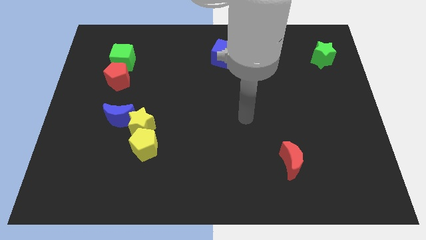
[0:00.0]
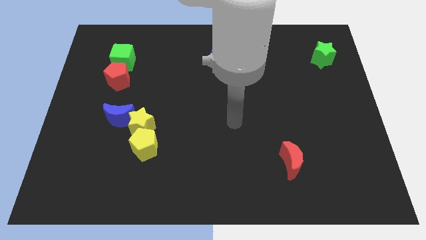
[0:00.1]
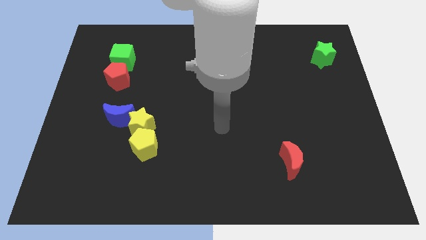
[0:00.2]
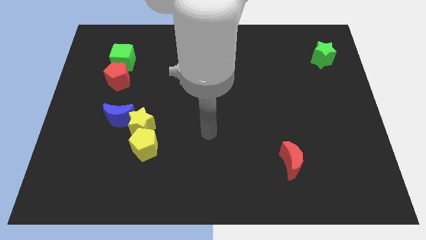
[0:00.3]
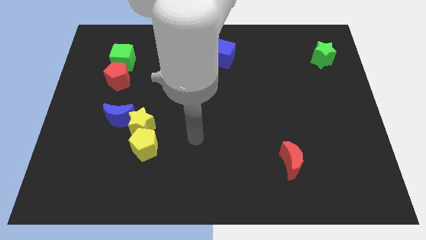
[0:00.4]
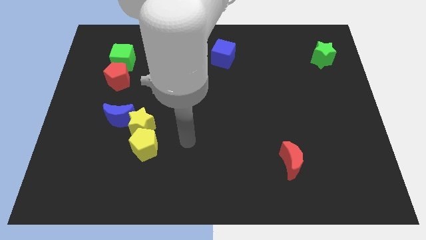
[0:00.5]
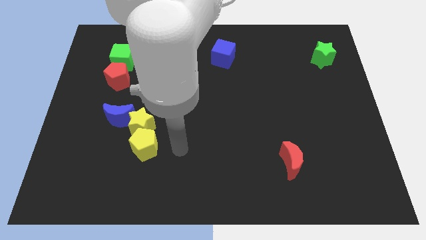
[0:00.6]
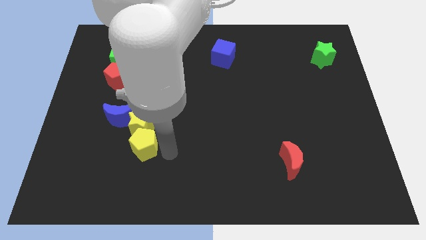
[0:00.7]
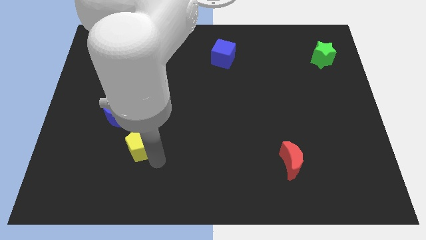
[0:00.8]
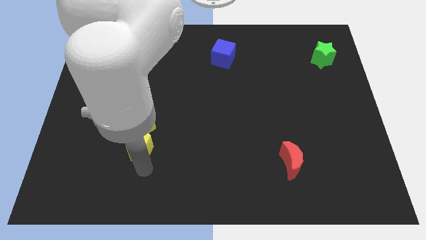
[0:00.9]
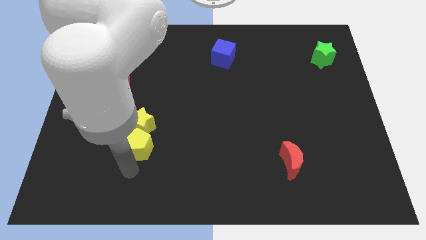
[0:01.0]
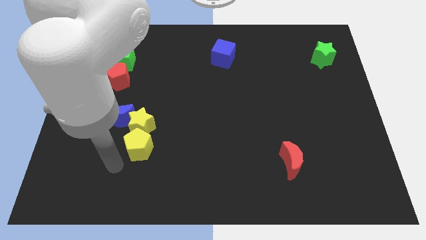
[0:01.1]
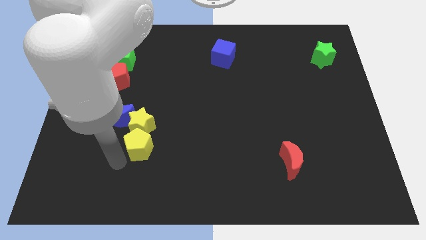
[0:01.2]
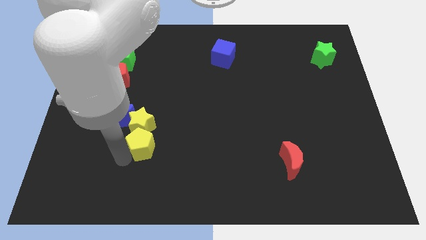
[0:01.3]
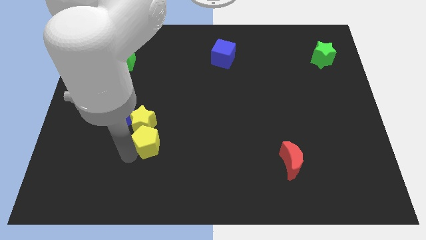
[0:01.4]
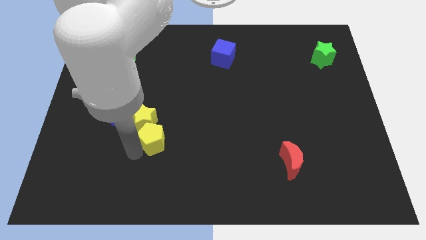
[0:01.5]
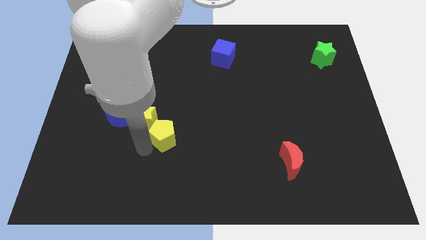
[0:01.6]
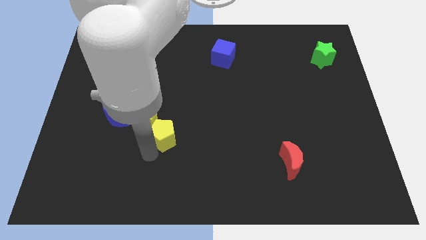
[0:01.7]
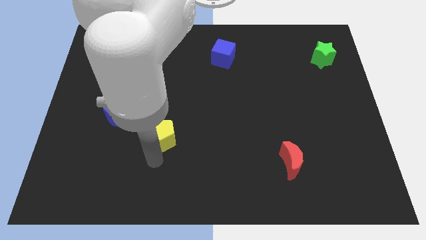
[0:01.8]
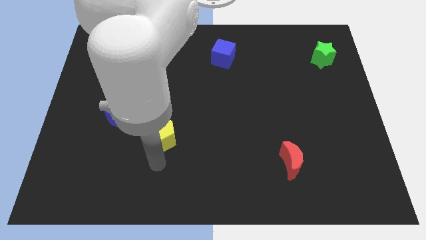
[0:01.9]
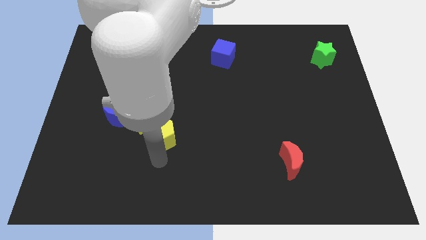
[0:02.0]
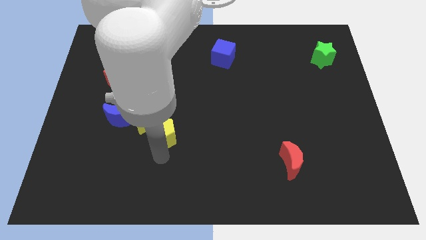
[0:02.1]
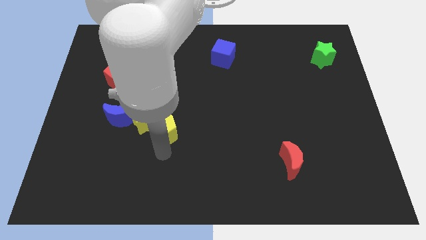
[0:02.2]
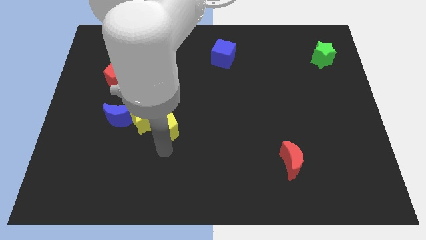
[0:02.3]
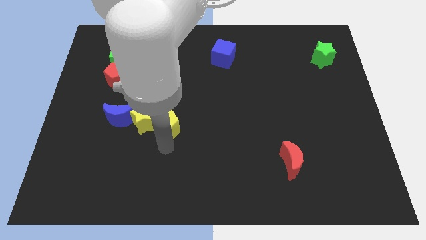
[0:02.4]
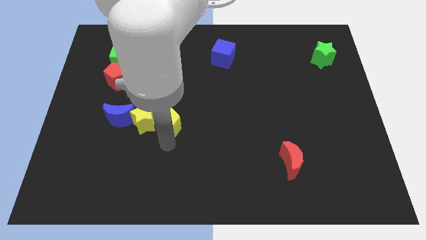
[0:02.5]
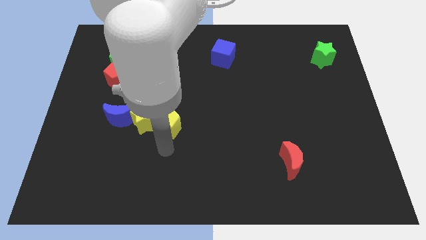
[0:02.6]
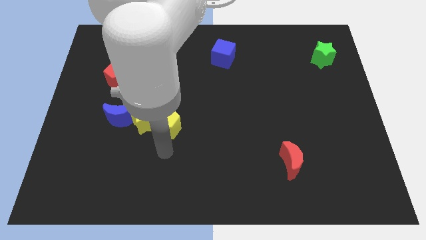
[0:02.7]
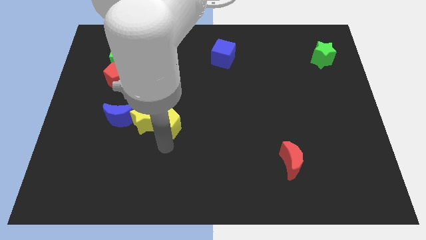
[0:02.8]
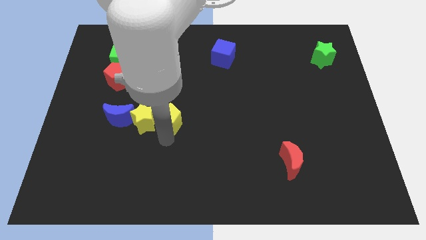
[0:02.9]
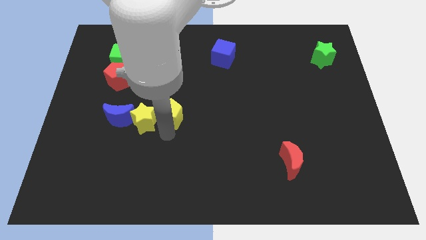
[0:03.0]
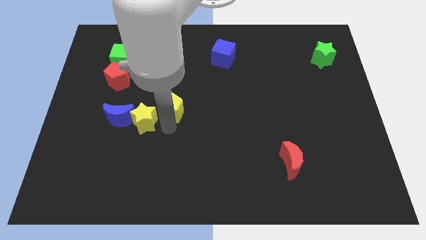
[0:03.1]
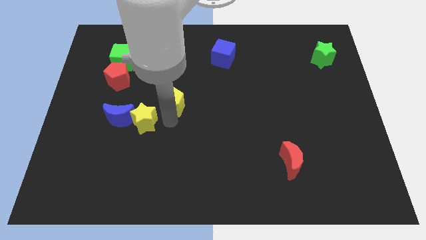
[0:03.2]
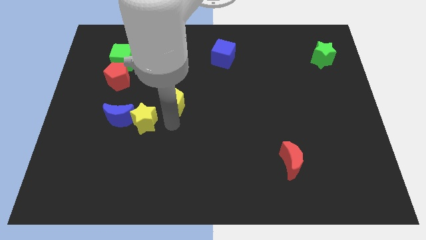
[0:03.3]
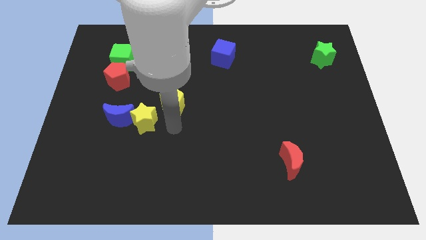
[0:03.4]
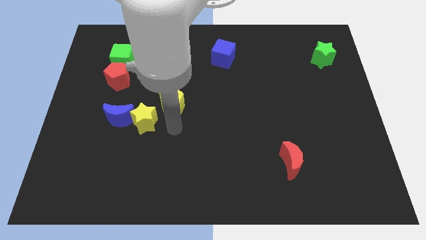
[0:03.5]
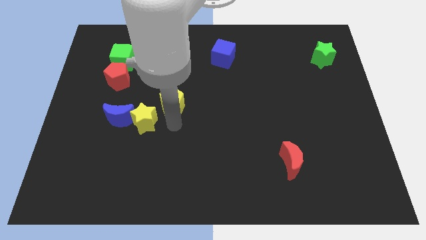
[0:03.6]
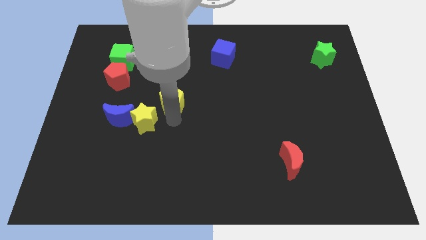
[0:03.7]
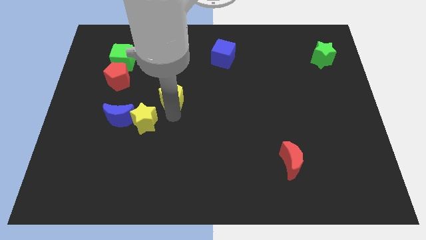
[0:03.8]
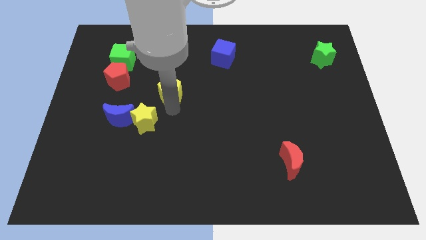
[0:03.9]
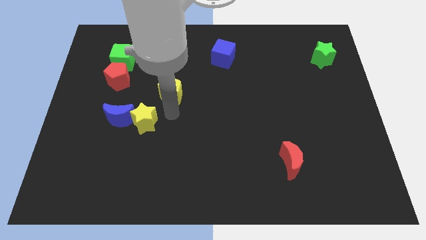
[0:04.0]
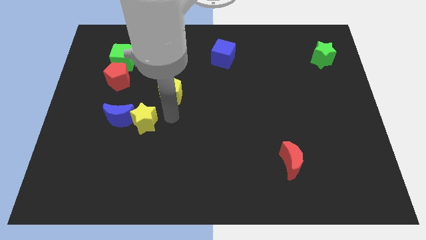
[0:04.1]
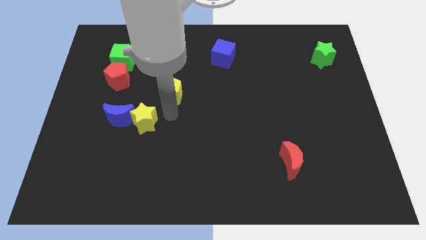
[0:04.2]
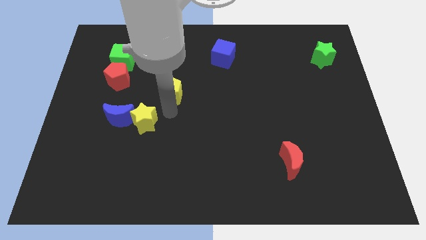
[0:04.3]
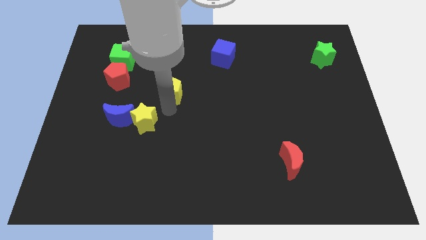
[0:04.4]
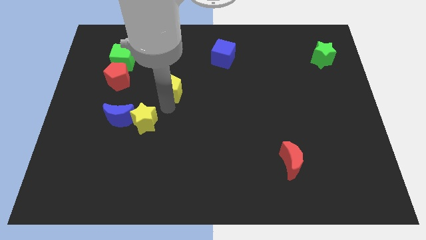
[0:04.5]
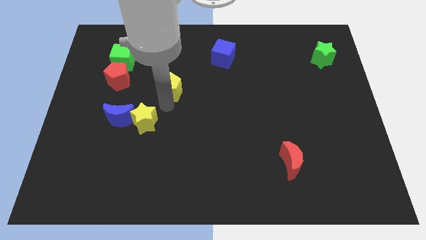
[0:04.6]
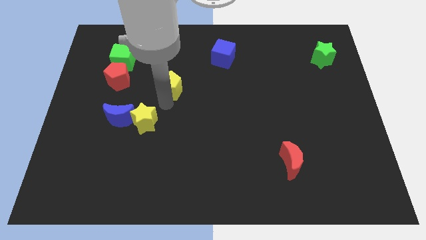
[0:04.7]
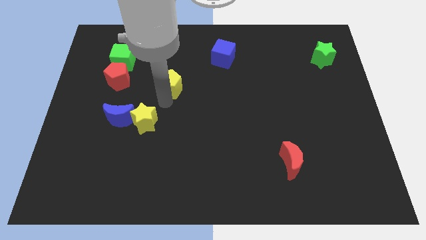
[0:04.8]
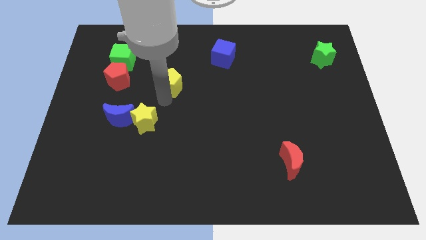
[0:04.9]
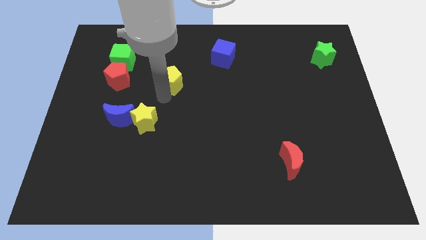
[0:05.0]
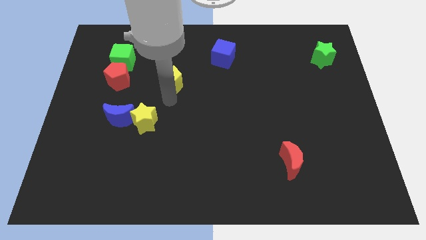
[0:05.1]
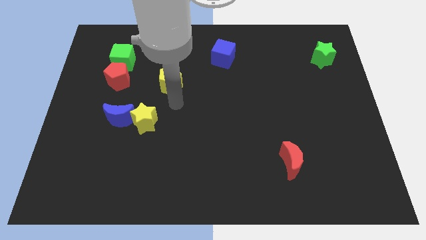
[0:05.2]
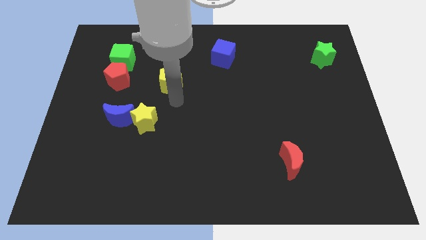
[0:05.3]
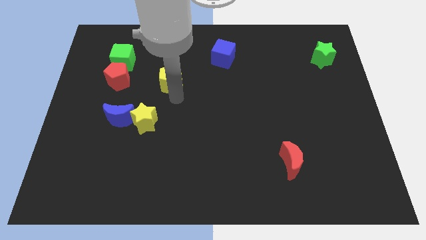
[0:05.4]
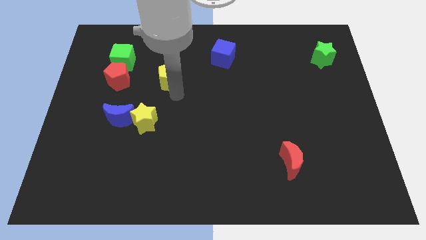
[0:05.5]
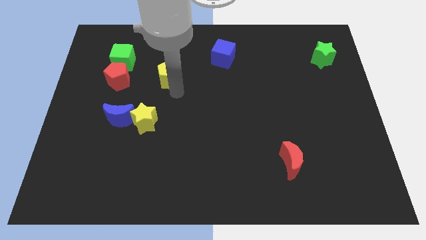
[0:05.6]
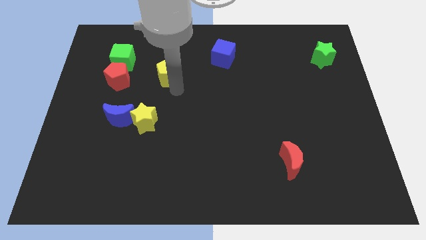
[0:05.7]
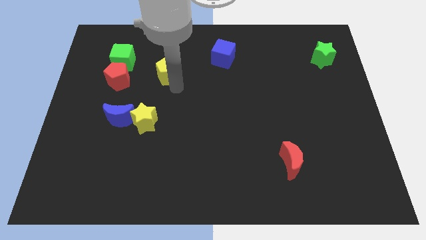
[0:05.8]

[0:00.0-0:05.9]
put the yellow pentagon to the right of the green cube

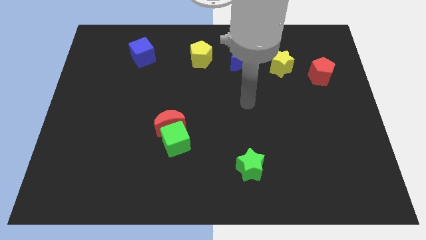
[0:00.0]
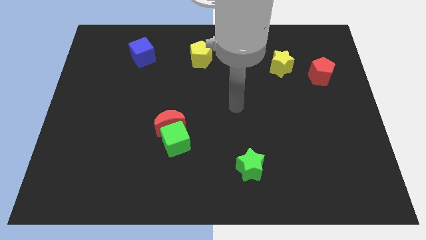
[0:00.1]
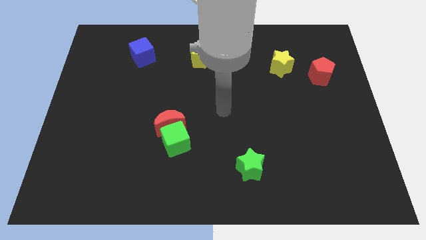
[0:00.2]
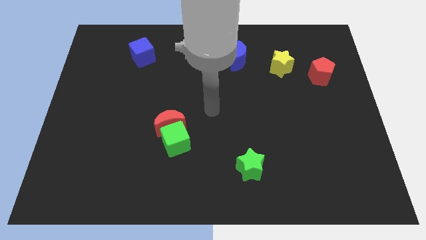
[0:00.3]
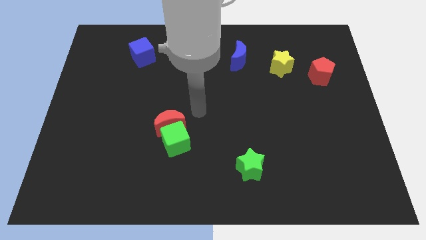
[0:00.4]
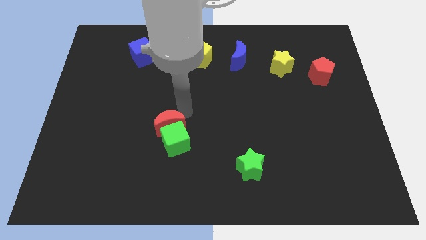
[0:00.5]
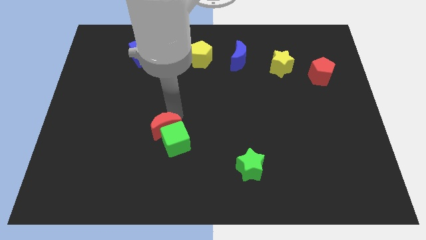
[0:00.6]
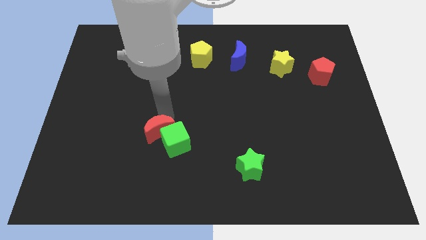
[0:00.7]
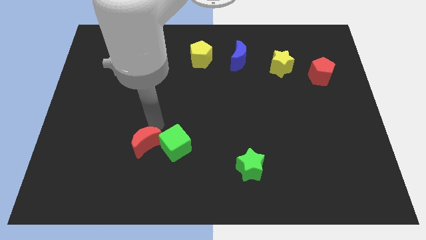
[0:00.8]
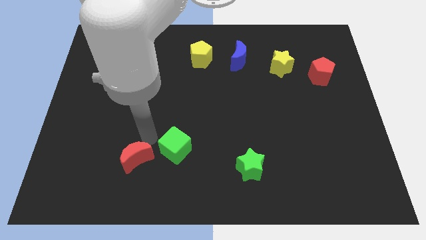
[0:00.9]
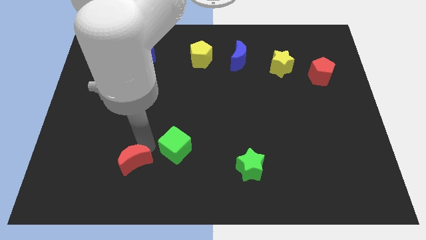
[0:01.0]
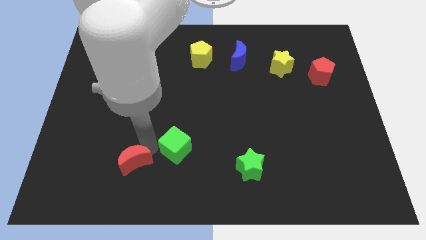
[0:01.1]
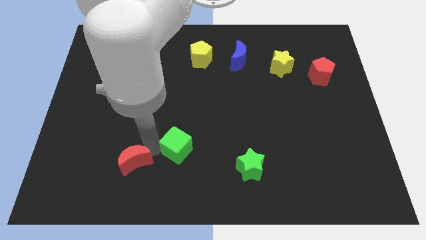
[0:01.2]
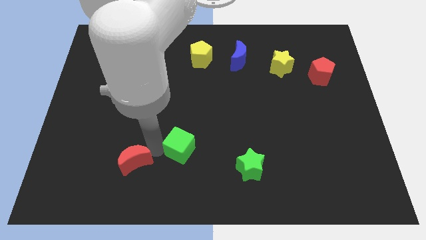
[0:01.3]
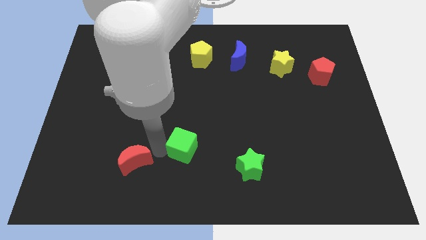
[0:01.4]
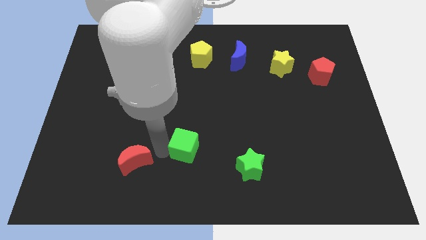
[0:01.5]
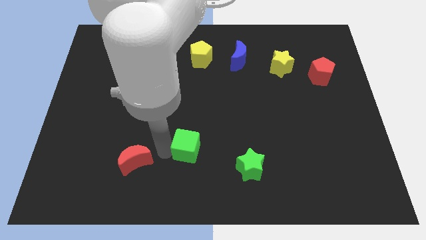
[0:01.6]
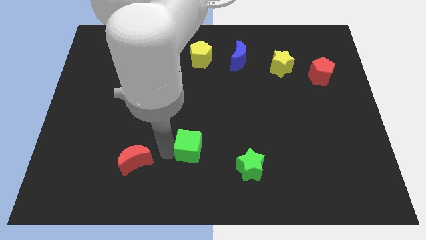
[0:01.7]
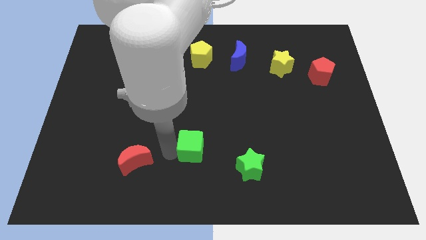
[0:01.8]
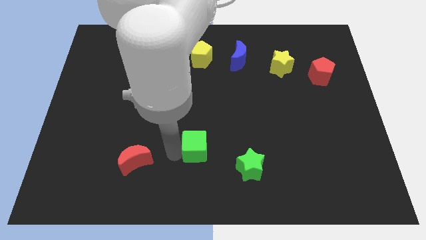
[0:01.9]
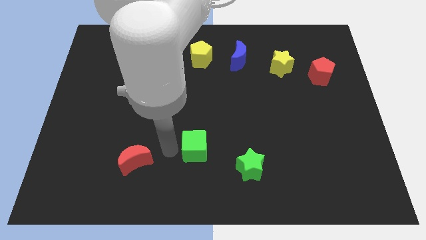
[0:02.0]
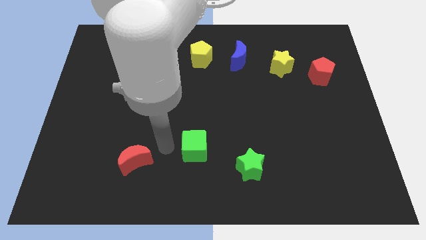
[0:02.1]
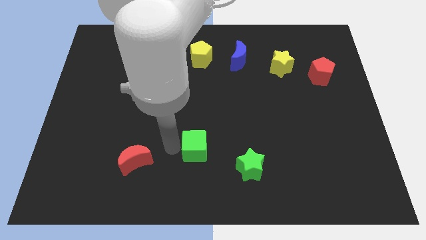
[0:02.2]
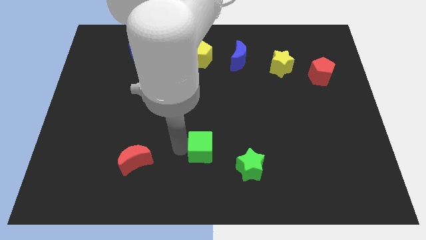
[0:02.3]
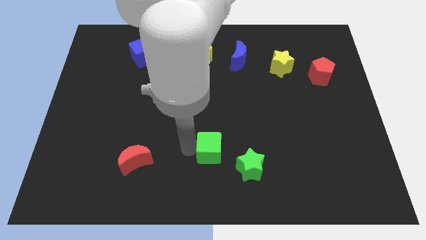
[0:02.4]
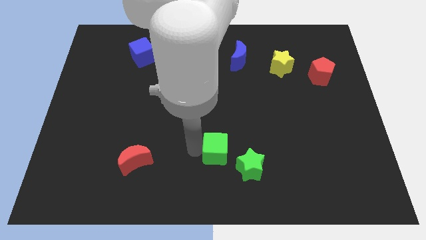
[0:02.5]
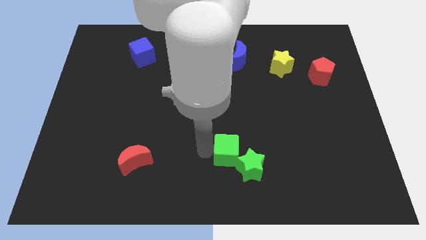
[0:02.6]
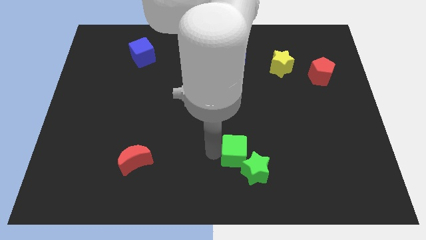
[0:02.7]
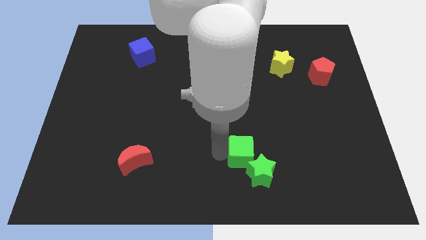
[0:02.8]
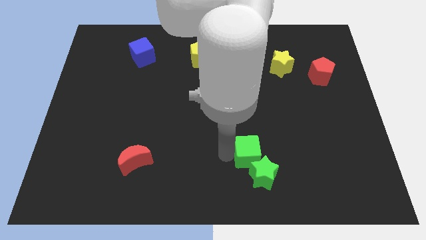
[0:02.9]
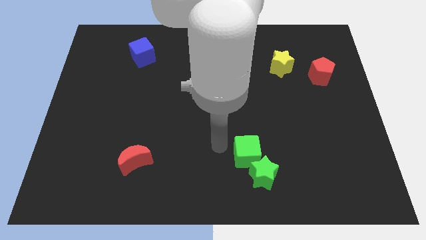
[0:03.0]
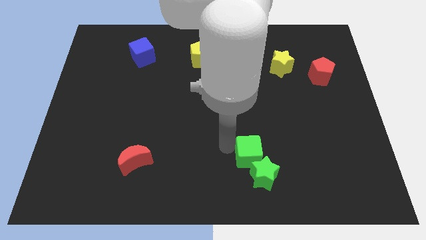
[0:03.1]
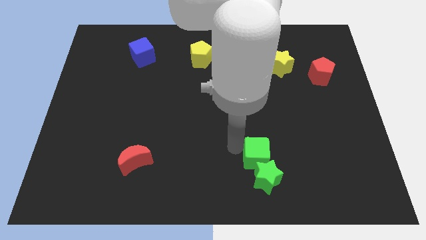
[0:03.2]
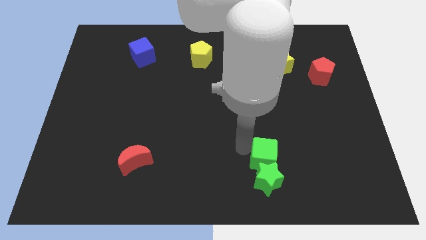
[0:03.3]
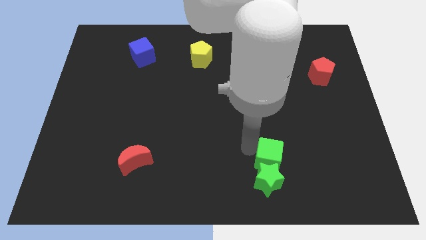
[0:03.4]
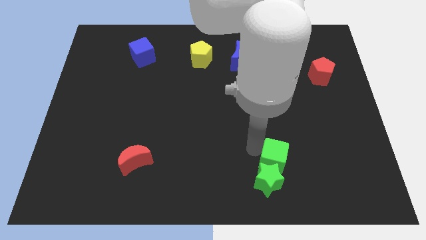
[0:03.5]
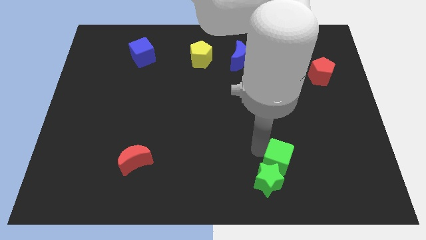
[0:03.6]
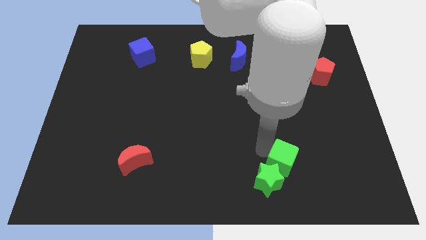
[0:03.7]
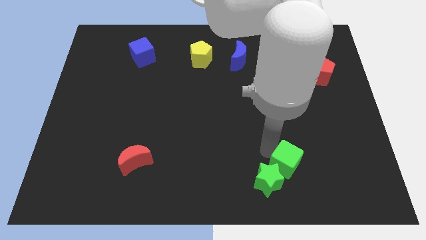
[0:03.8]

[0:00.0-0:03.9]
move the green cube to the right of the green star
